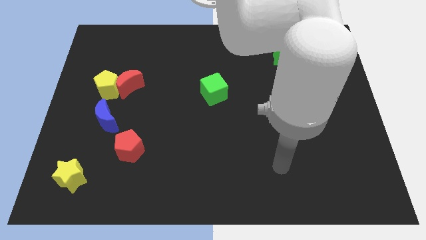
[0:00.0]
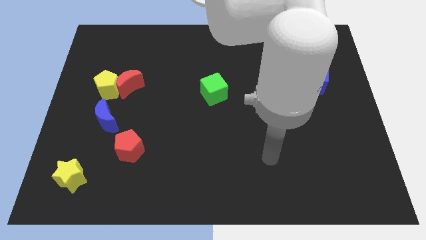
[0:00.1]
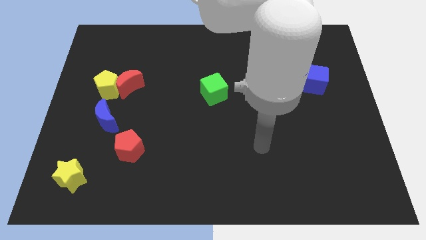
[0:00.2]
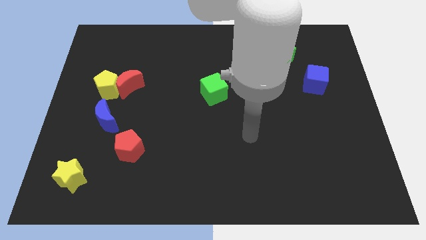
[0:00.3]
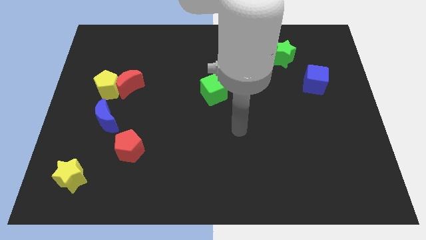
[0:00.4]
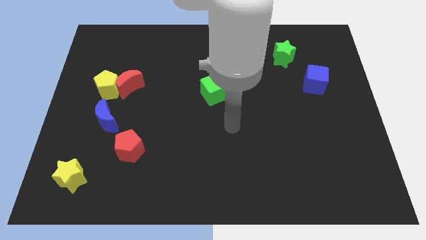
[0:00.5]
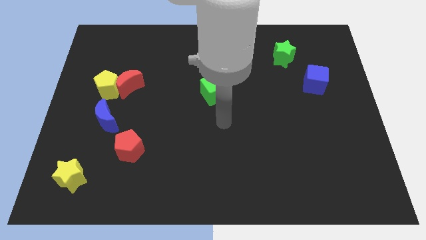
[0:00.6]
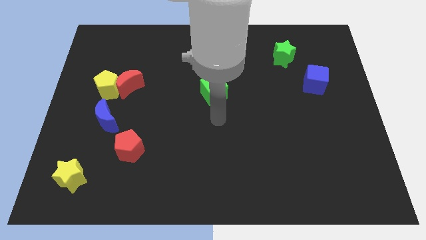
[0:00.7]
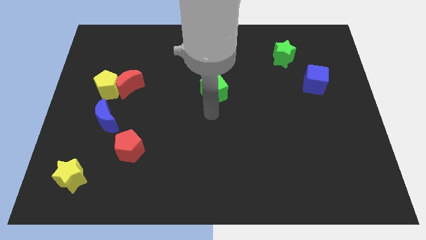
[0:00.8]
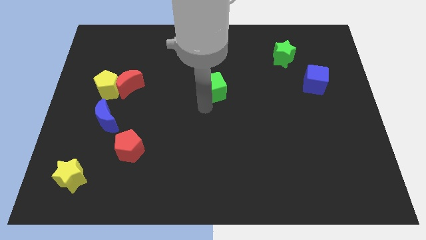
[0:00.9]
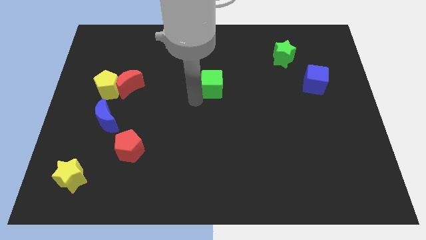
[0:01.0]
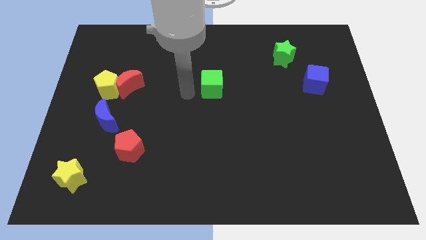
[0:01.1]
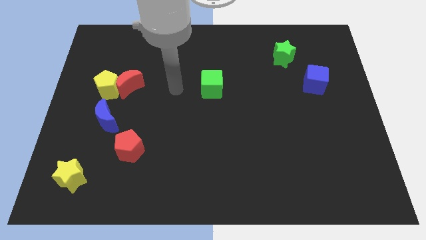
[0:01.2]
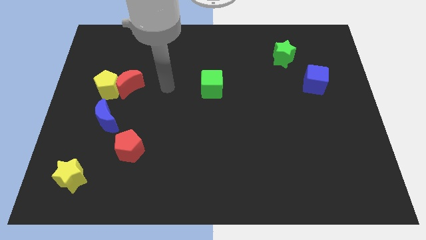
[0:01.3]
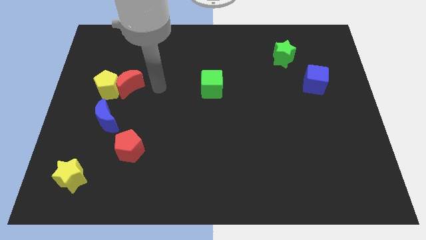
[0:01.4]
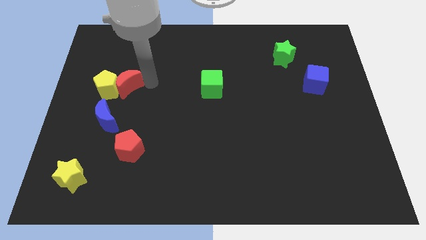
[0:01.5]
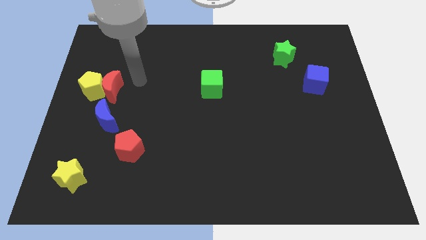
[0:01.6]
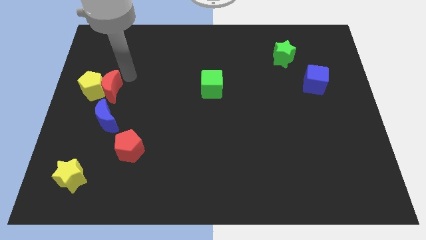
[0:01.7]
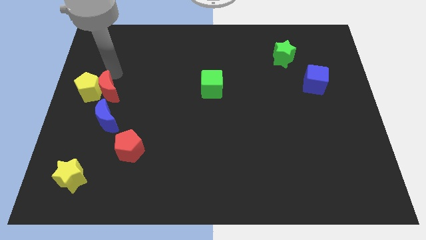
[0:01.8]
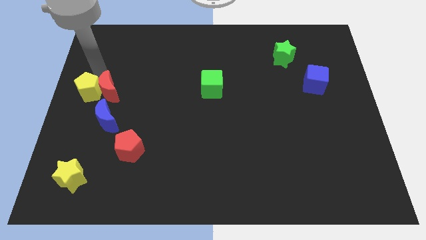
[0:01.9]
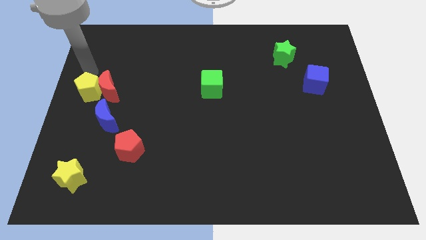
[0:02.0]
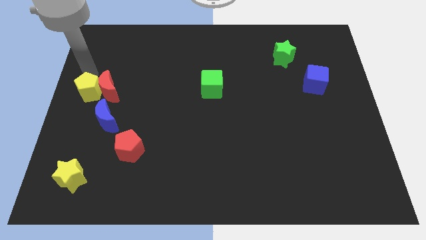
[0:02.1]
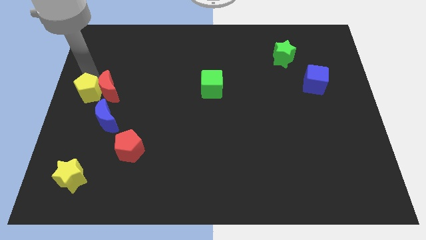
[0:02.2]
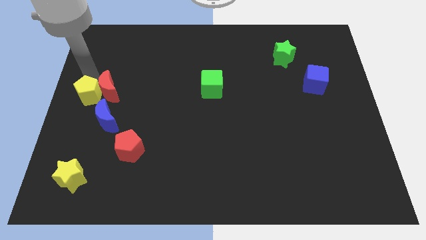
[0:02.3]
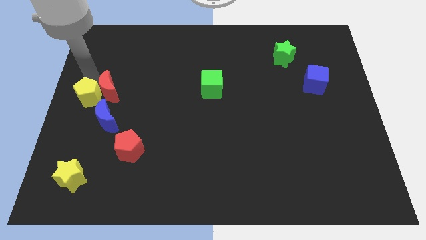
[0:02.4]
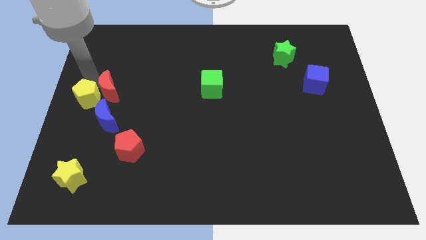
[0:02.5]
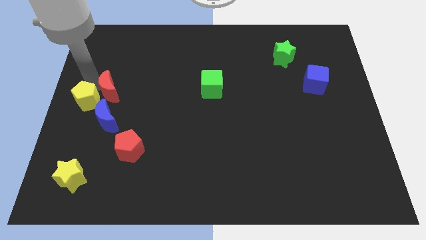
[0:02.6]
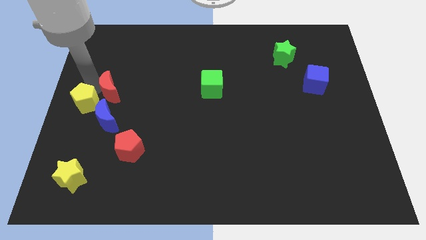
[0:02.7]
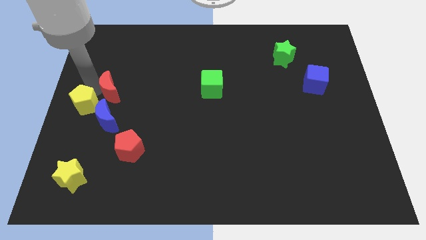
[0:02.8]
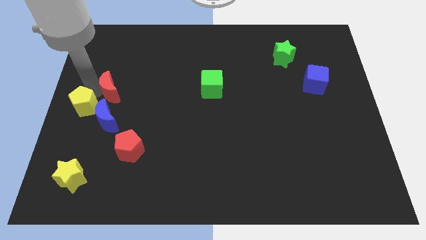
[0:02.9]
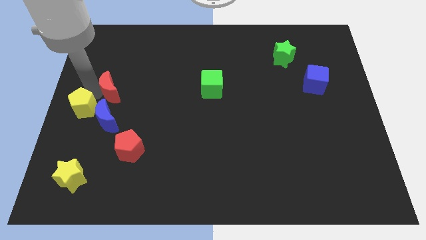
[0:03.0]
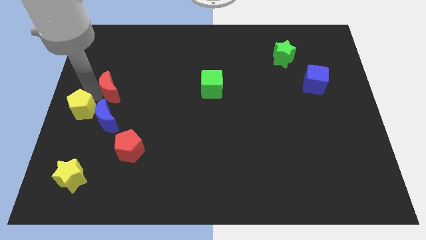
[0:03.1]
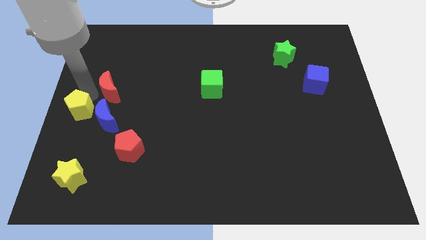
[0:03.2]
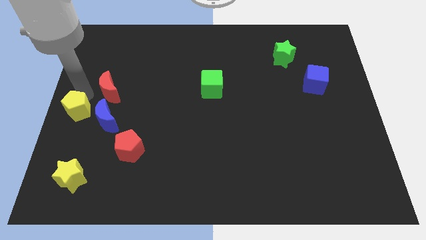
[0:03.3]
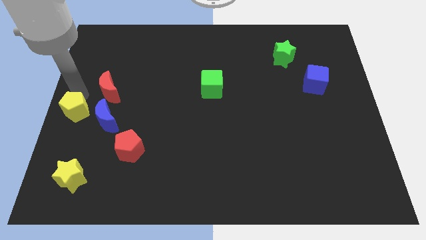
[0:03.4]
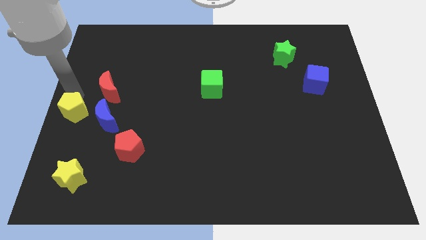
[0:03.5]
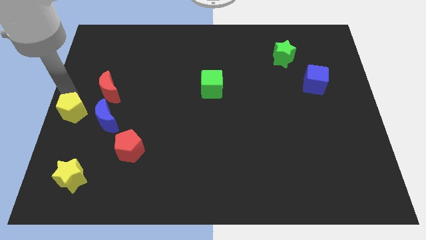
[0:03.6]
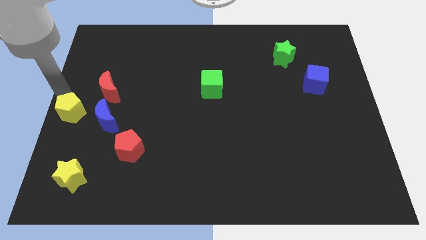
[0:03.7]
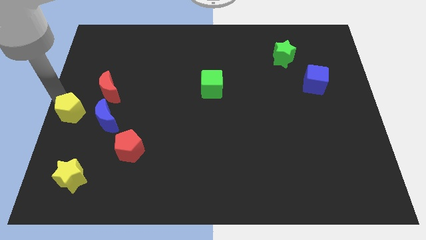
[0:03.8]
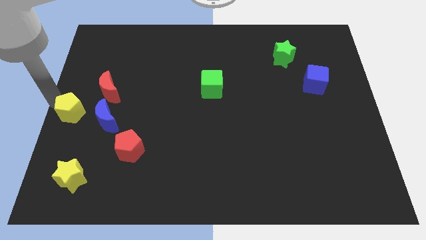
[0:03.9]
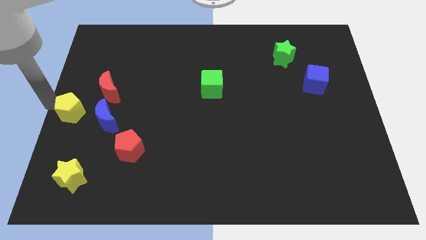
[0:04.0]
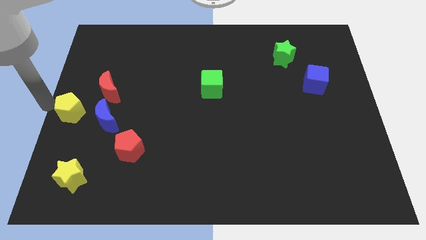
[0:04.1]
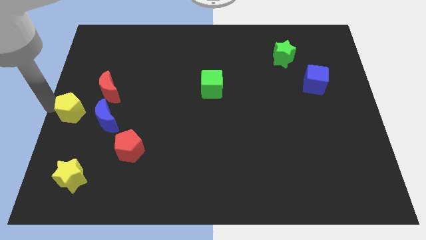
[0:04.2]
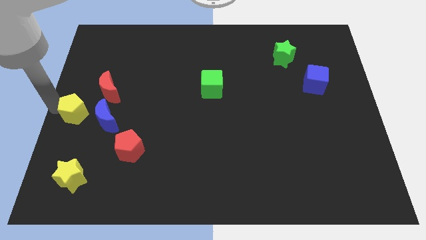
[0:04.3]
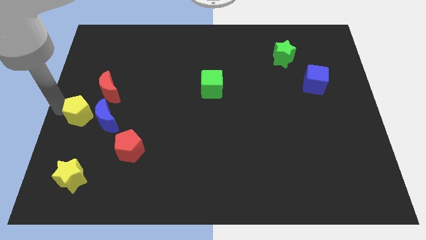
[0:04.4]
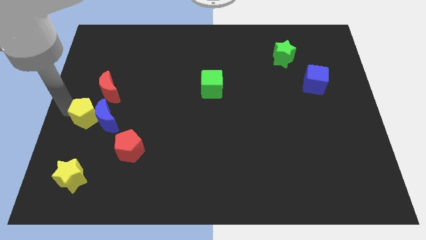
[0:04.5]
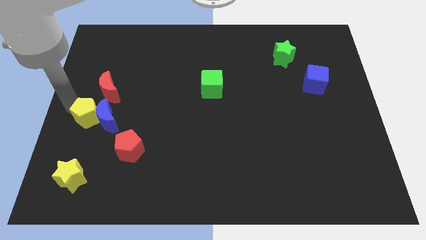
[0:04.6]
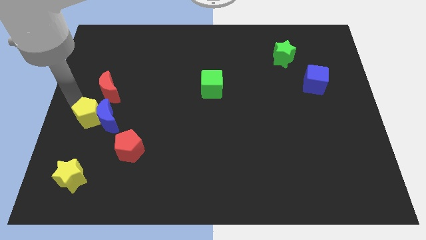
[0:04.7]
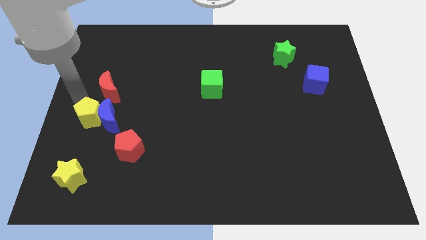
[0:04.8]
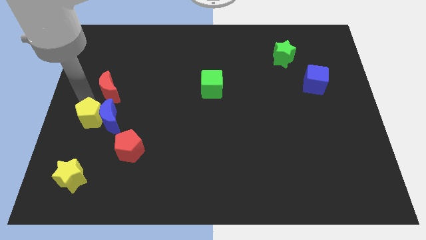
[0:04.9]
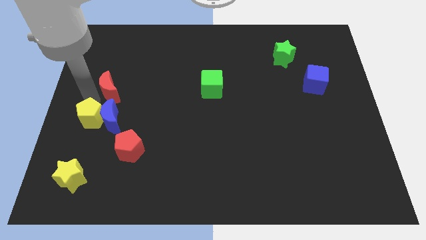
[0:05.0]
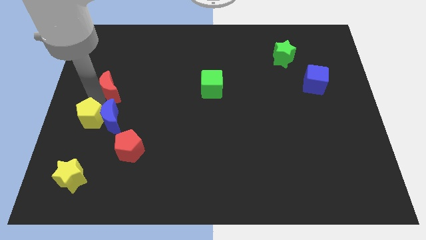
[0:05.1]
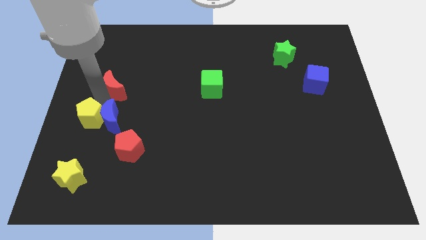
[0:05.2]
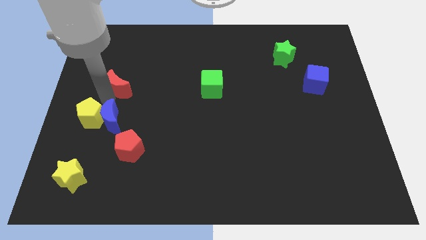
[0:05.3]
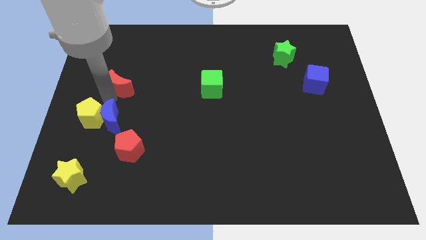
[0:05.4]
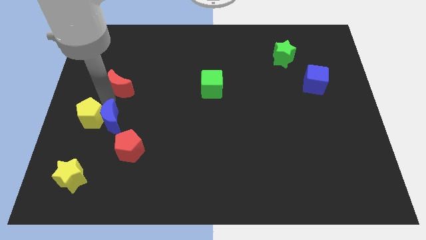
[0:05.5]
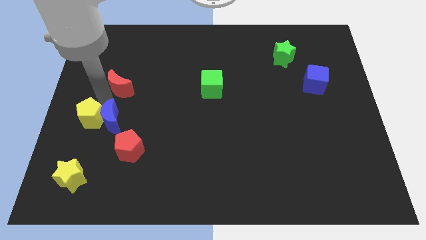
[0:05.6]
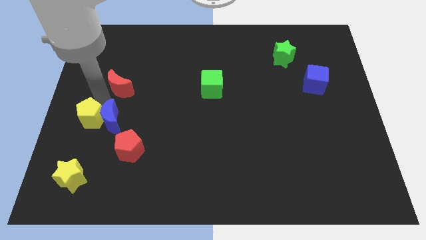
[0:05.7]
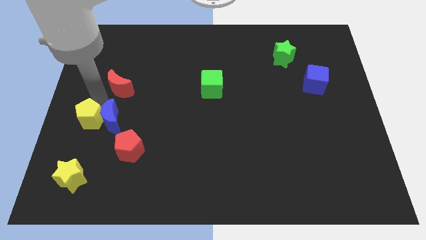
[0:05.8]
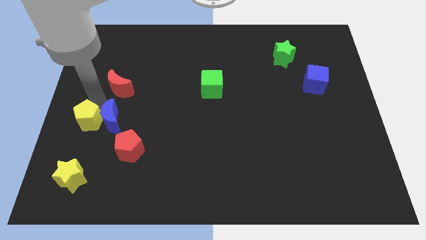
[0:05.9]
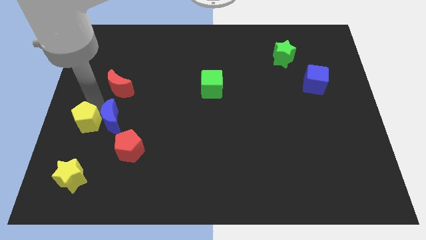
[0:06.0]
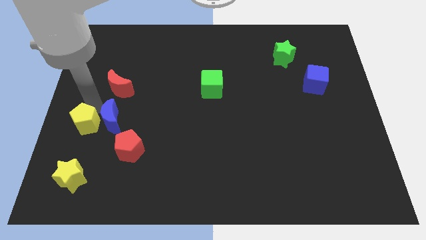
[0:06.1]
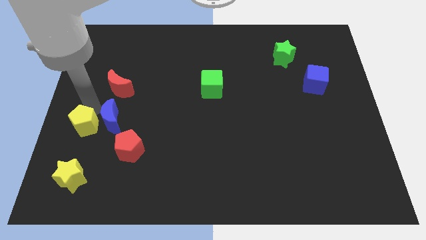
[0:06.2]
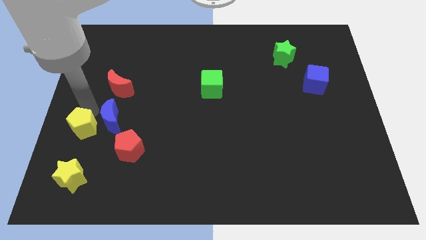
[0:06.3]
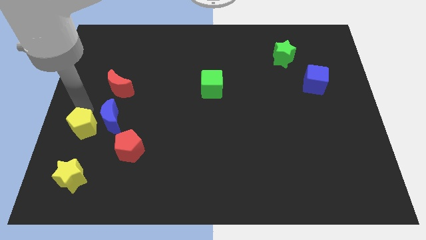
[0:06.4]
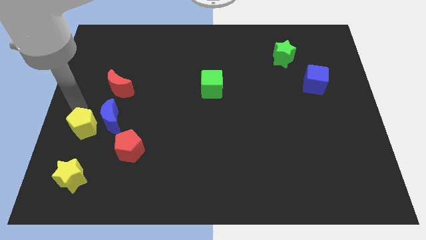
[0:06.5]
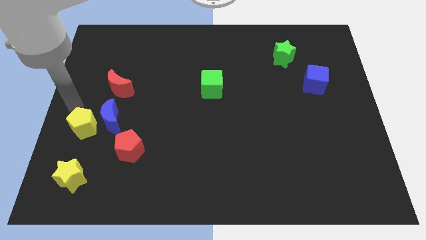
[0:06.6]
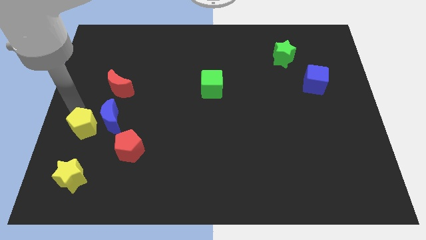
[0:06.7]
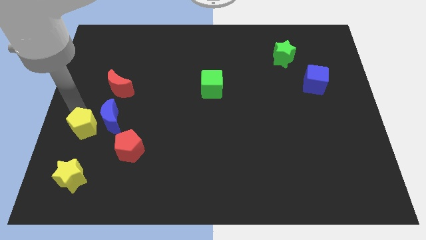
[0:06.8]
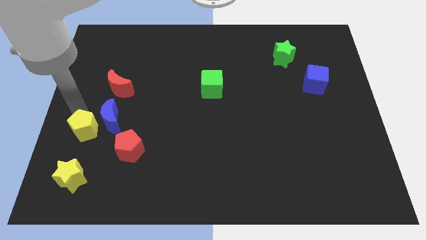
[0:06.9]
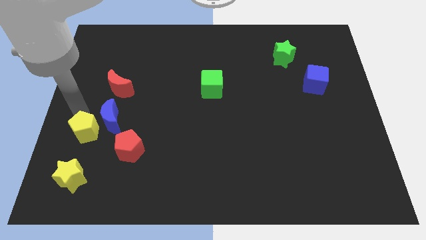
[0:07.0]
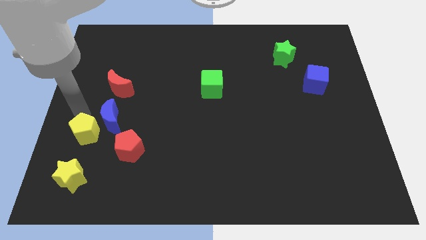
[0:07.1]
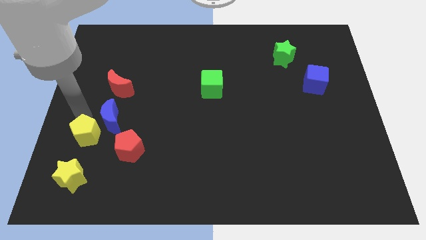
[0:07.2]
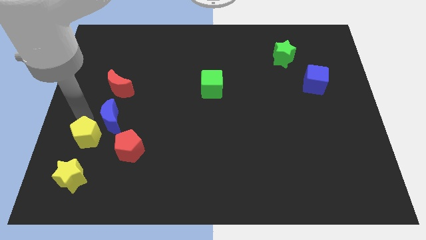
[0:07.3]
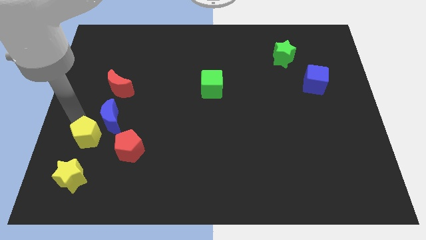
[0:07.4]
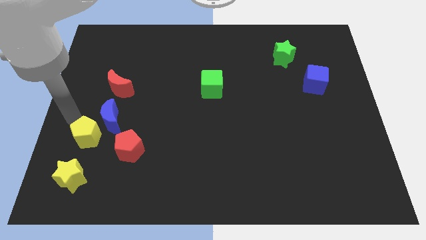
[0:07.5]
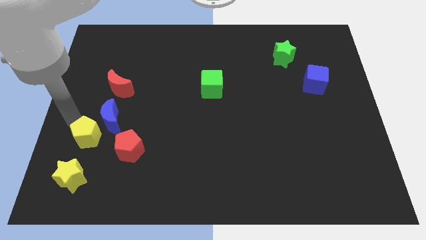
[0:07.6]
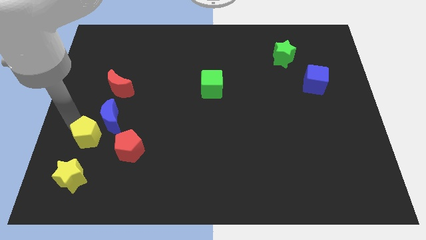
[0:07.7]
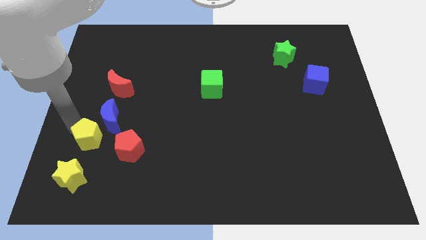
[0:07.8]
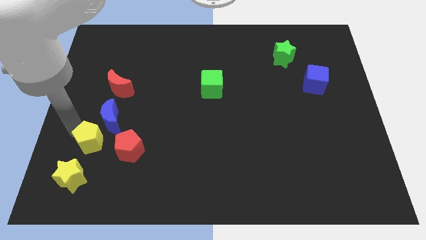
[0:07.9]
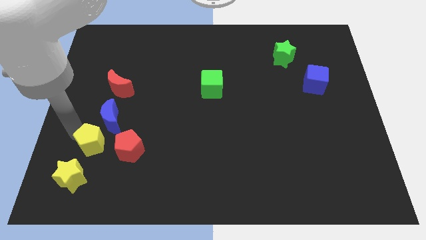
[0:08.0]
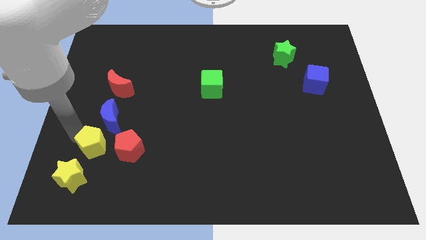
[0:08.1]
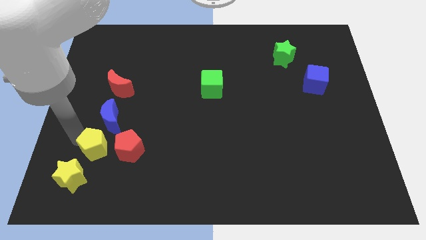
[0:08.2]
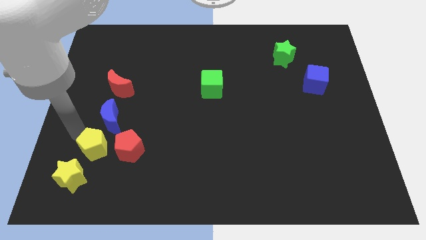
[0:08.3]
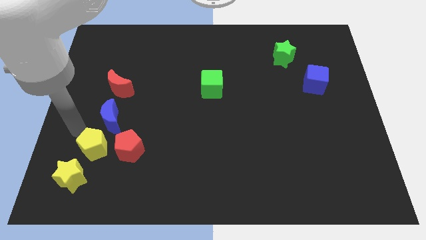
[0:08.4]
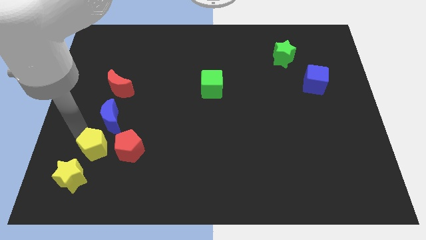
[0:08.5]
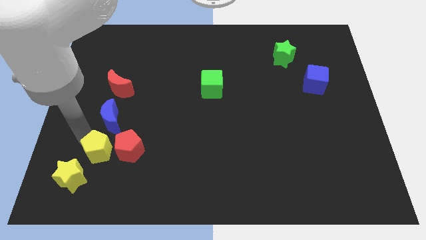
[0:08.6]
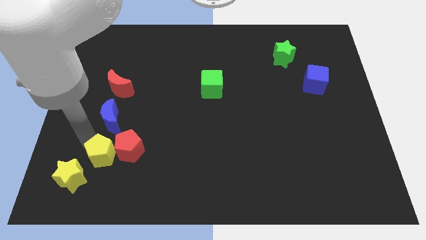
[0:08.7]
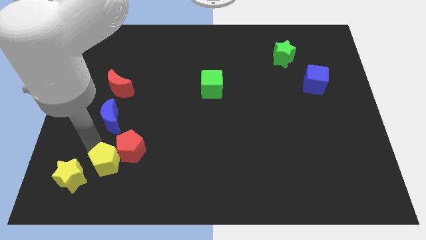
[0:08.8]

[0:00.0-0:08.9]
slide the yellow pentagon to the right of the yellow star
